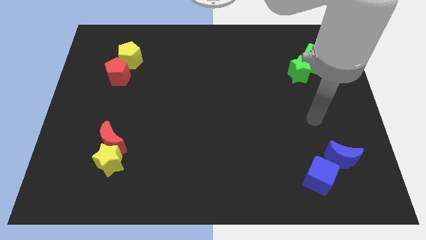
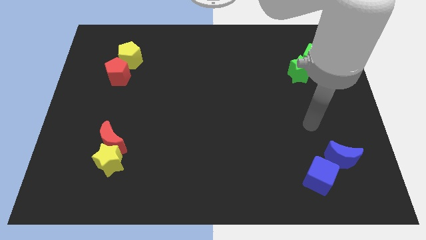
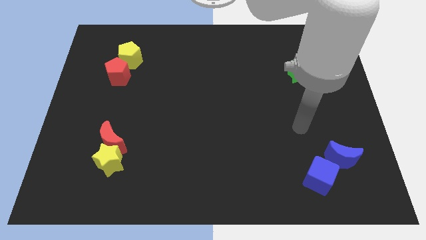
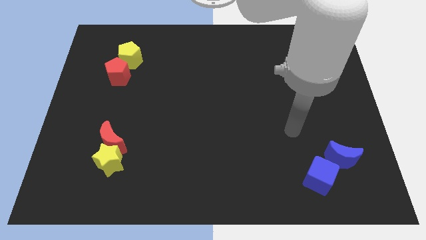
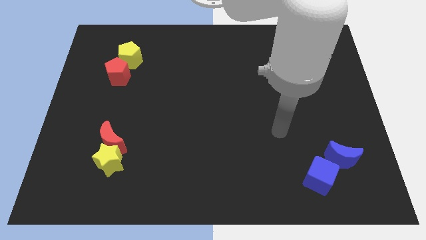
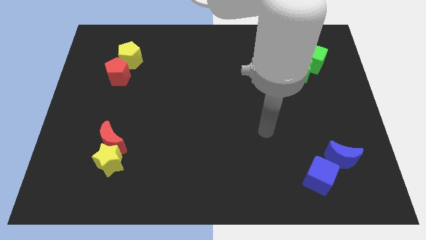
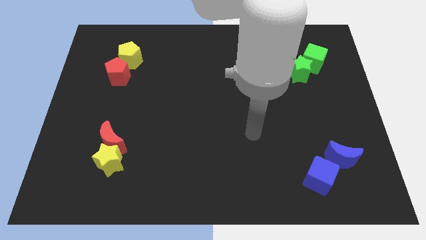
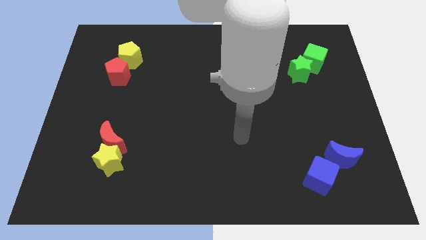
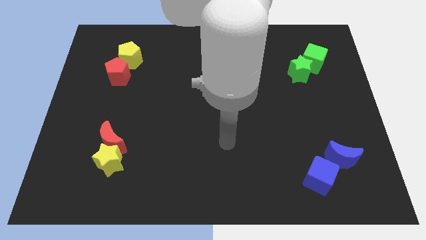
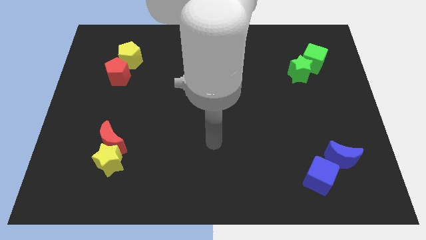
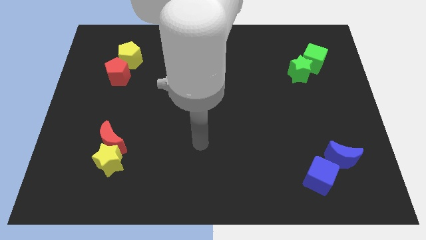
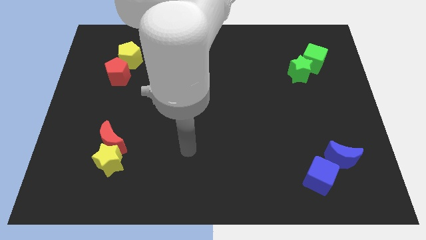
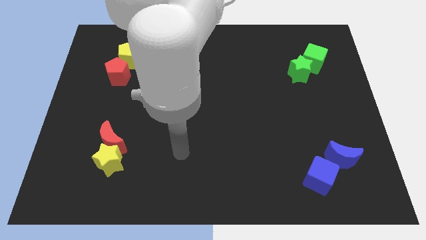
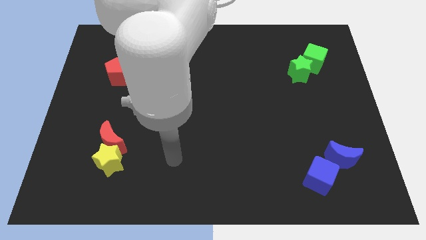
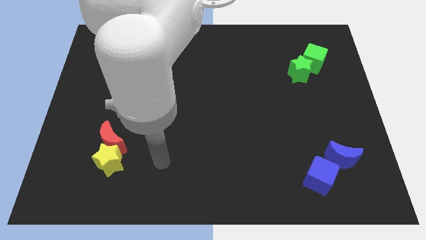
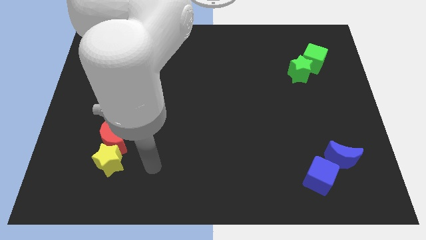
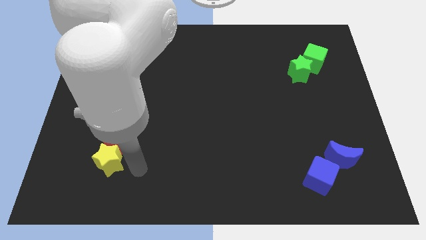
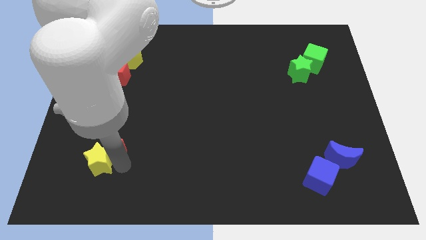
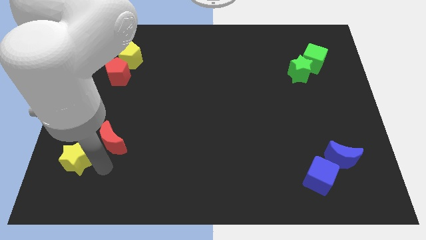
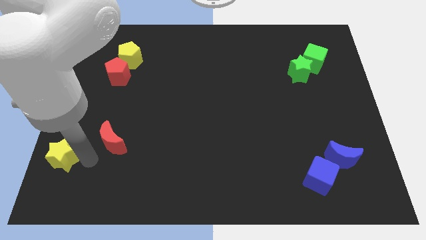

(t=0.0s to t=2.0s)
move the red moon away from the yellow star

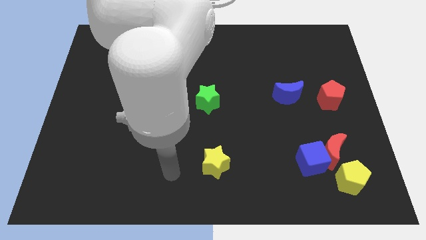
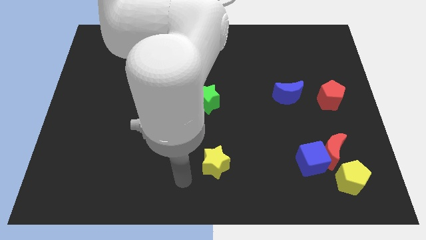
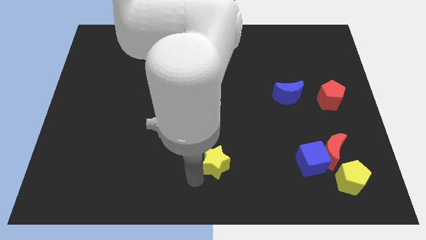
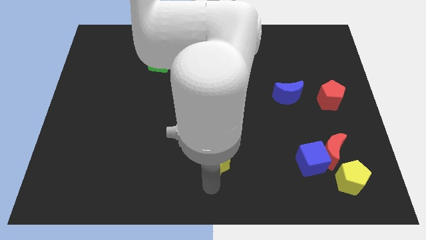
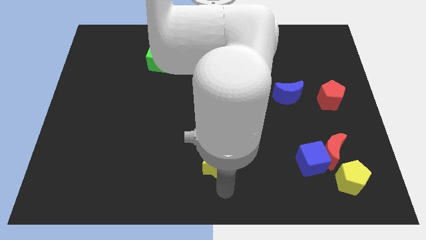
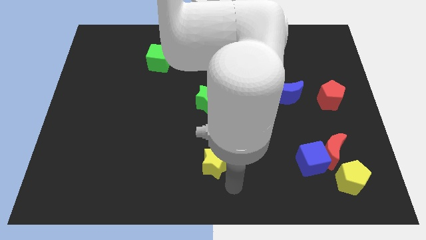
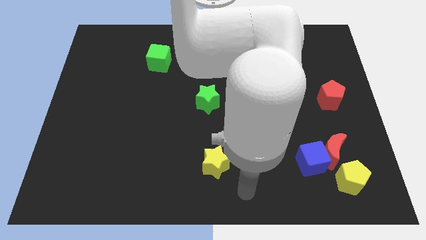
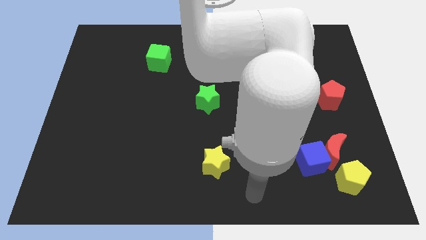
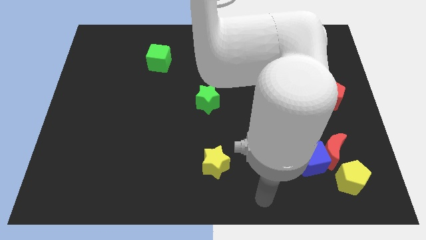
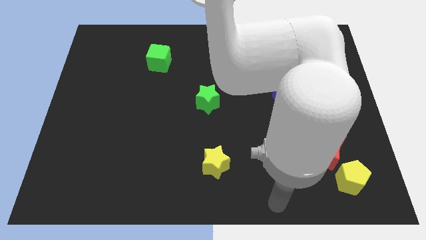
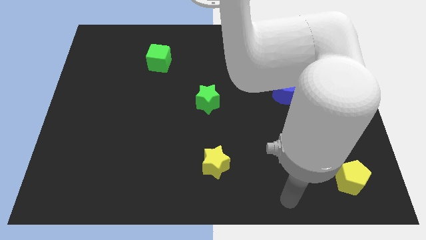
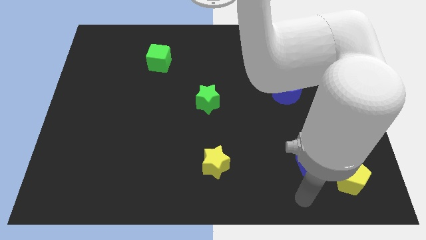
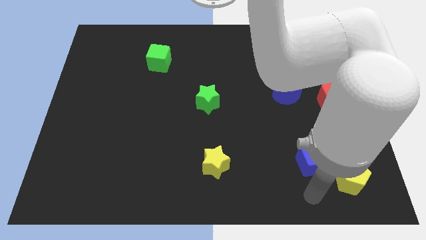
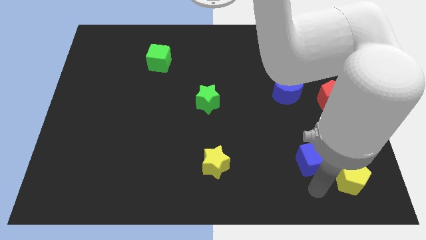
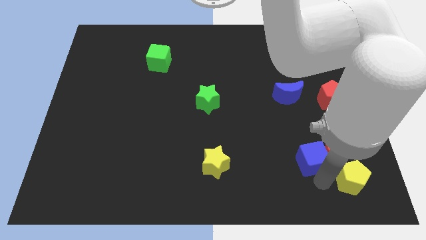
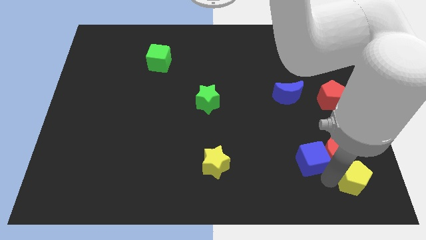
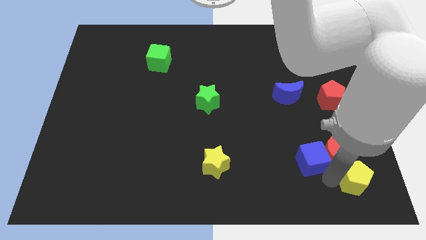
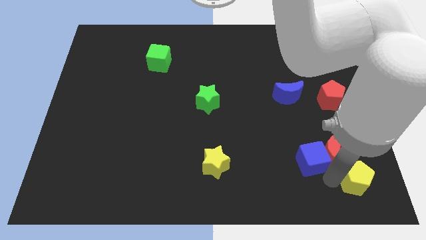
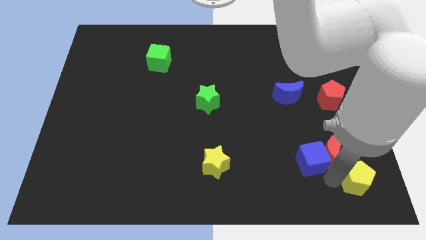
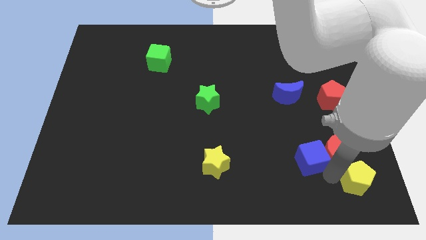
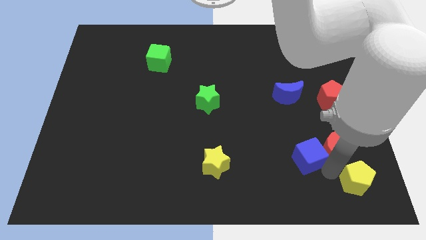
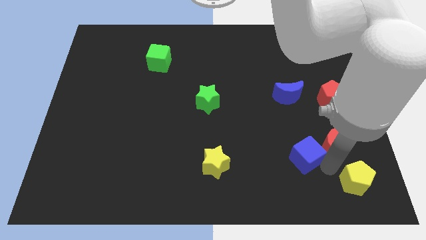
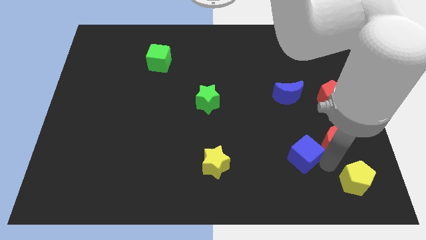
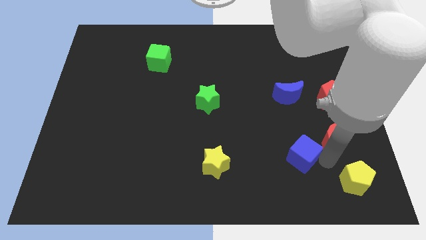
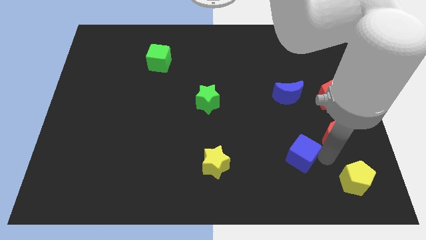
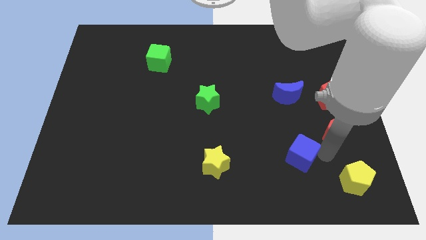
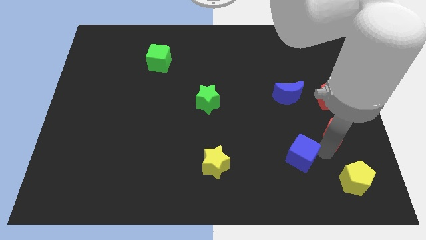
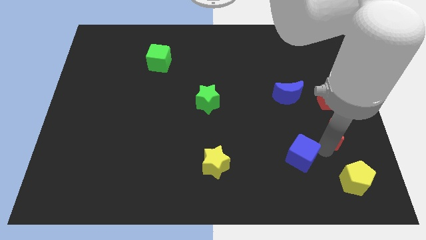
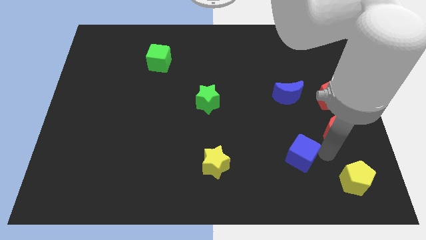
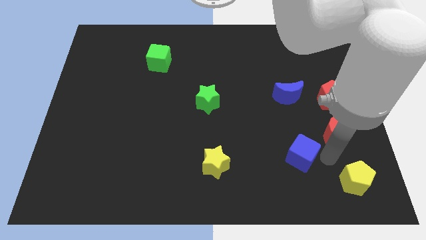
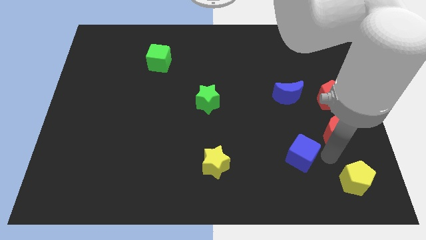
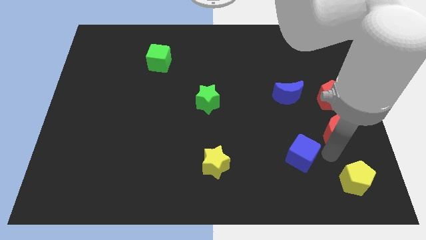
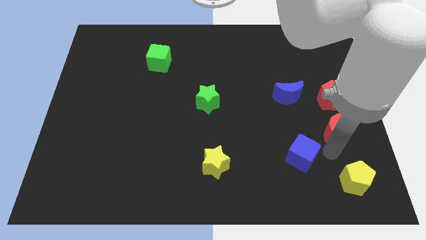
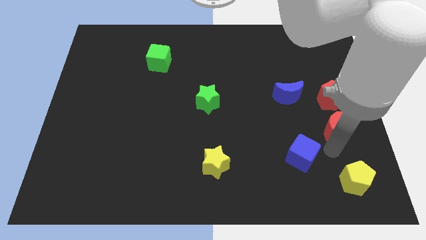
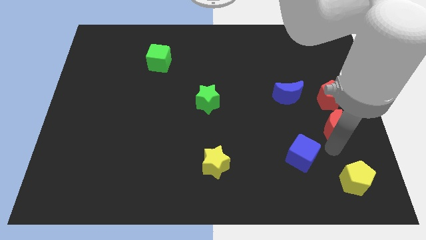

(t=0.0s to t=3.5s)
pull the red moon apart from the blue cube and yellow pentagon

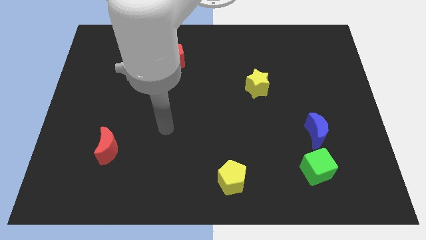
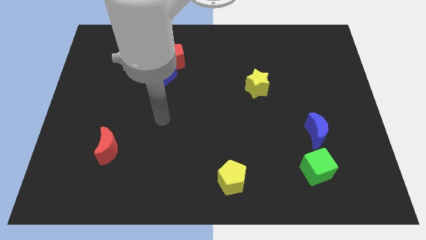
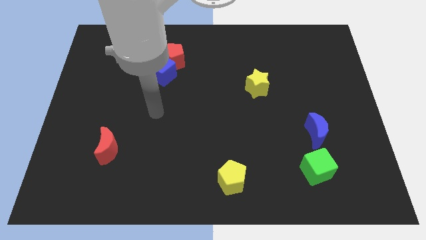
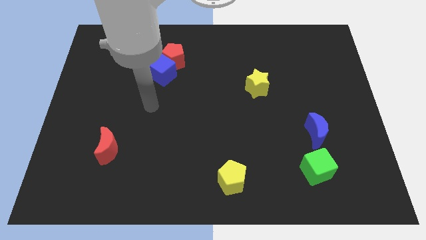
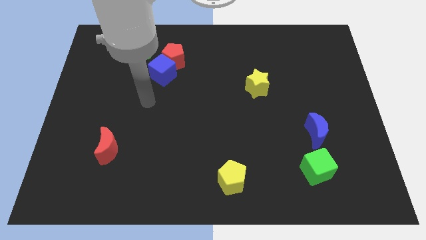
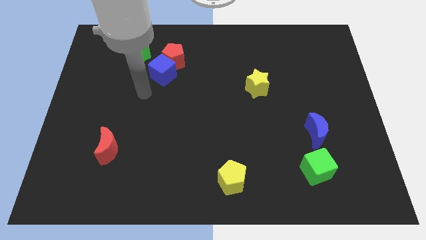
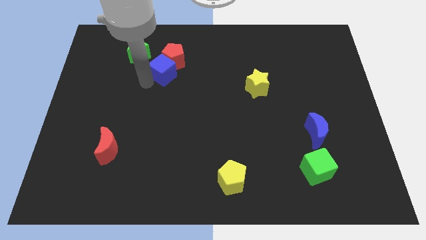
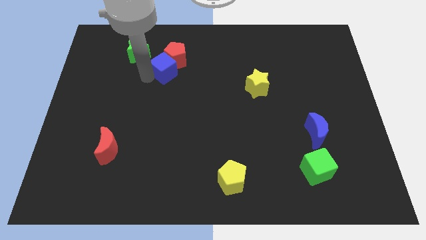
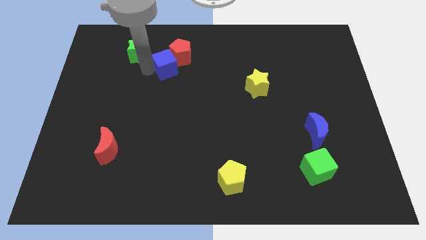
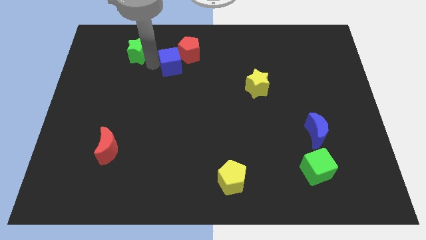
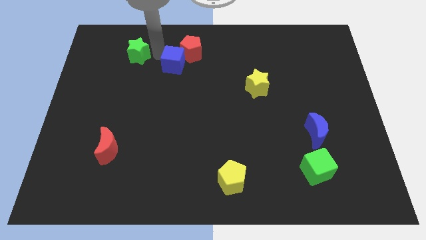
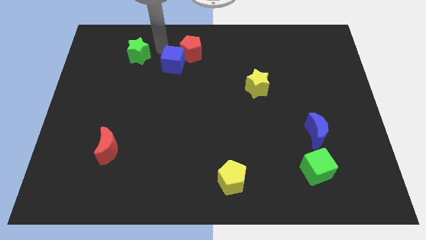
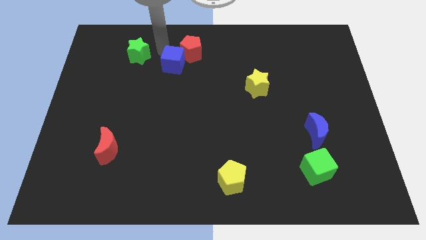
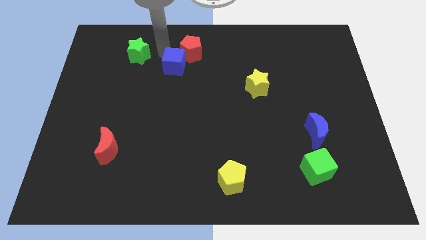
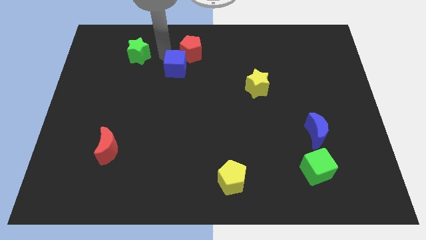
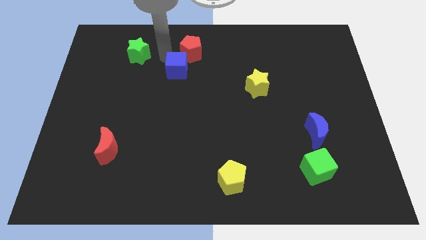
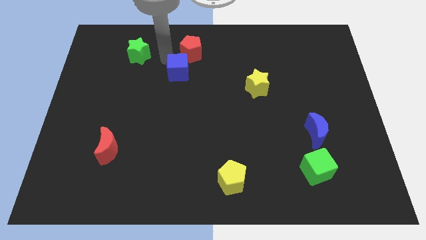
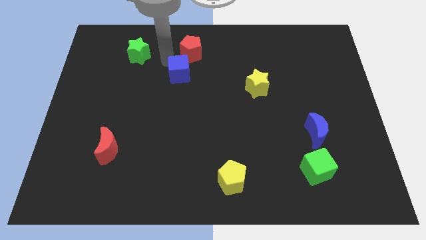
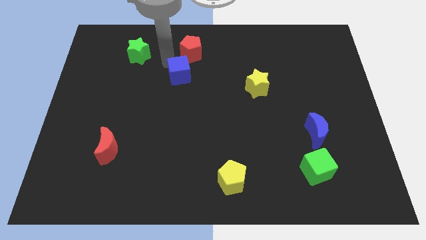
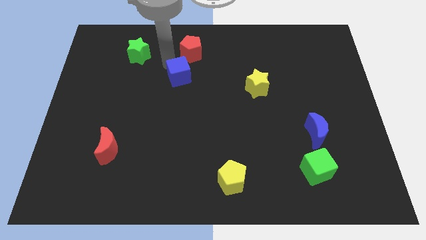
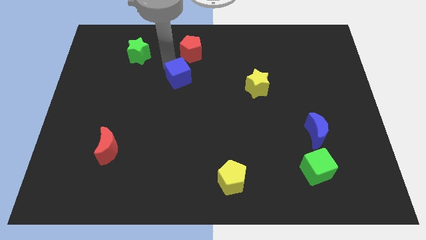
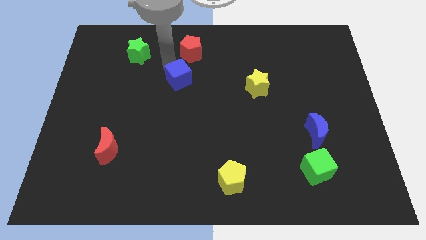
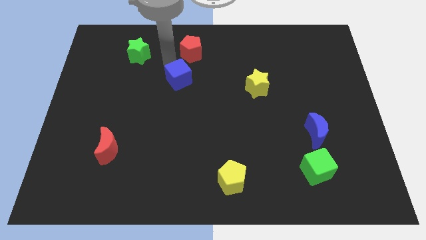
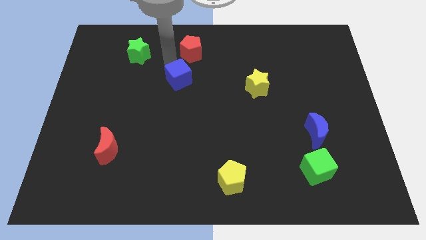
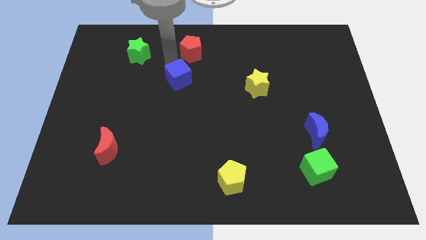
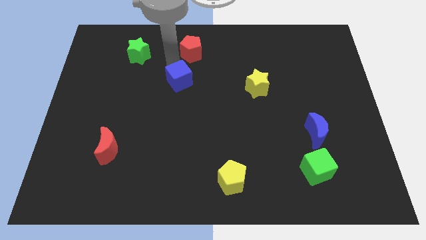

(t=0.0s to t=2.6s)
move the blue cube away from the red pentagon and green star

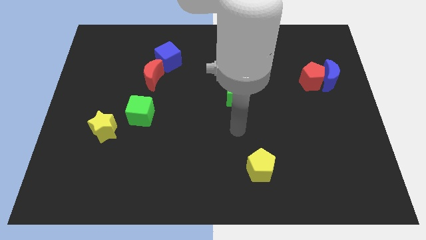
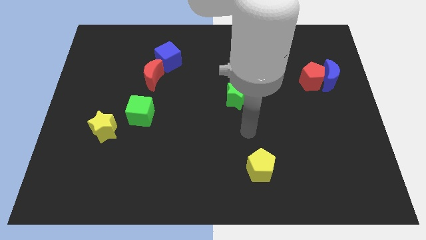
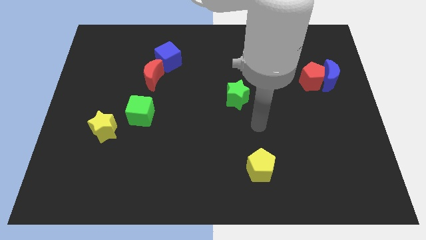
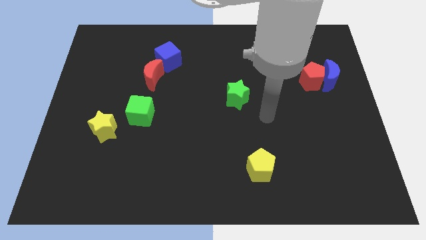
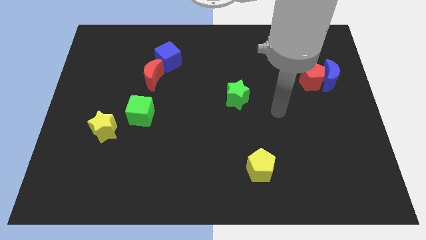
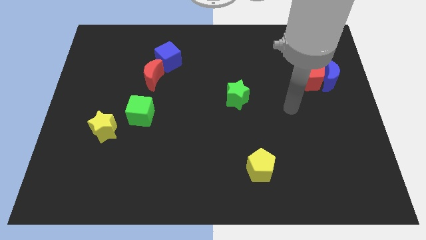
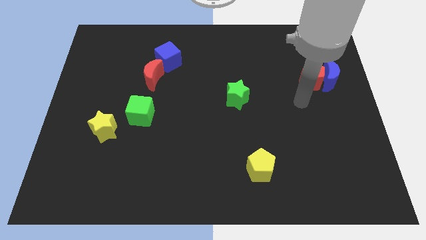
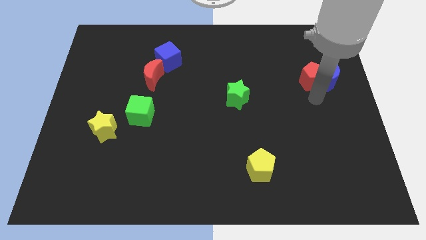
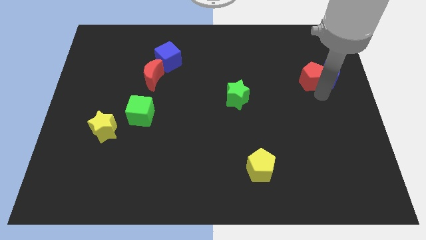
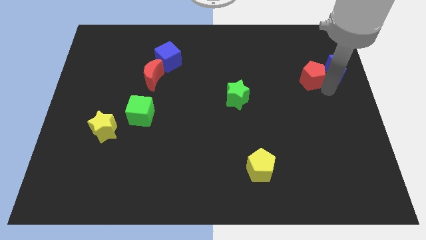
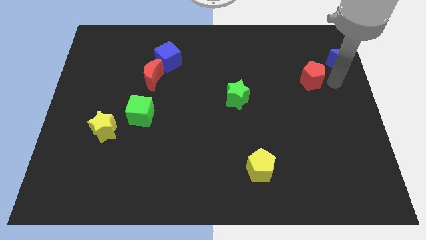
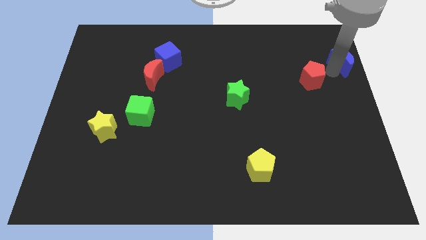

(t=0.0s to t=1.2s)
separate the red pentagon from the blue moon
